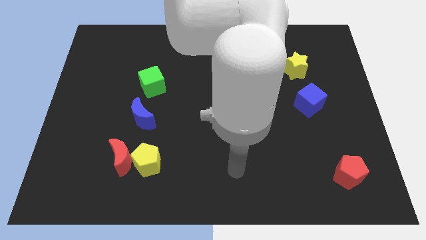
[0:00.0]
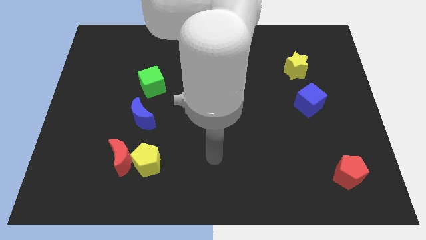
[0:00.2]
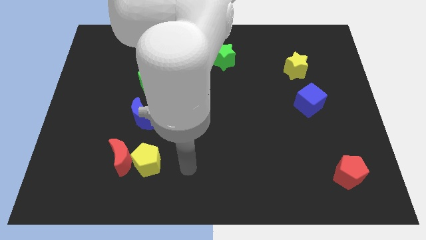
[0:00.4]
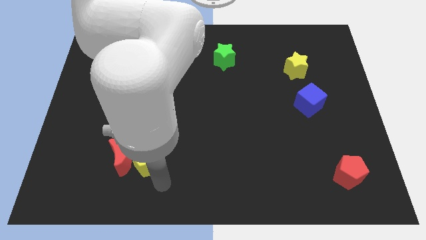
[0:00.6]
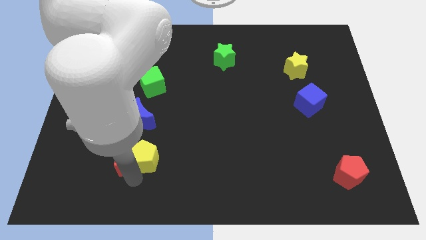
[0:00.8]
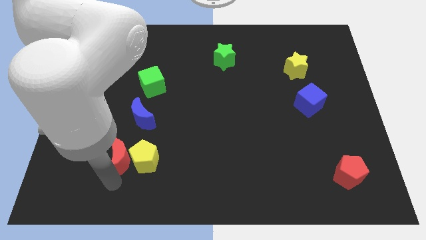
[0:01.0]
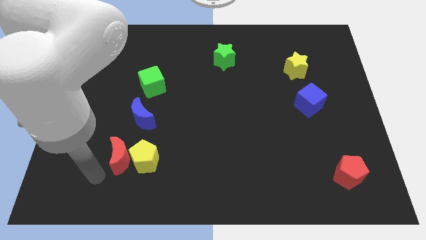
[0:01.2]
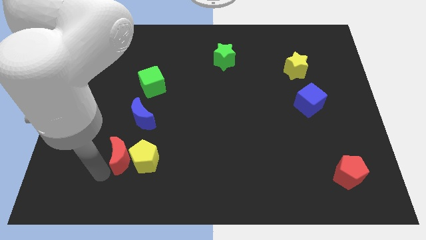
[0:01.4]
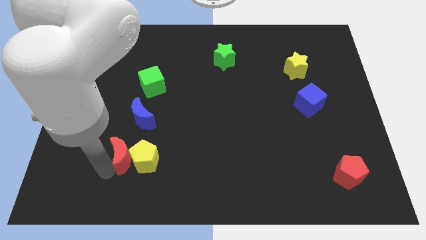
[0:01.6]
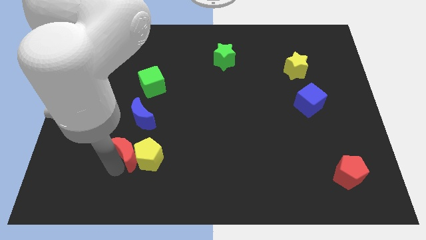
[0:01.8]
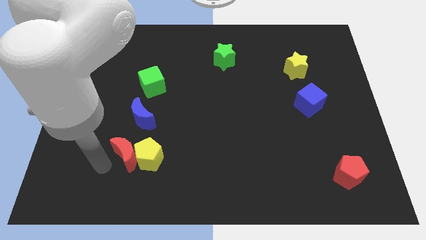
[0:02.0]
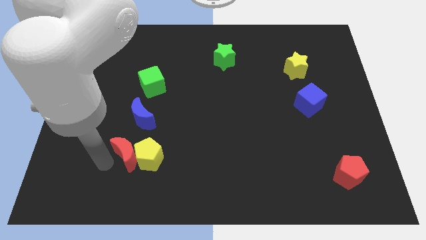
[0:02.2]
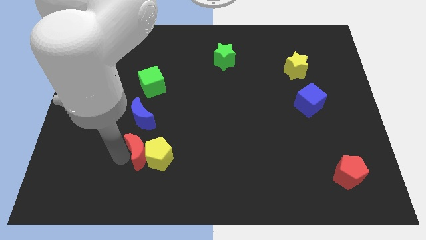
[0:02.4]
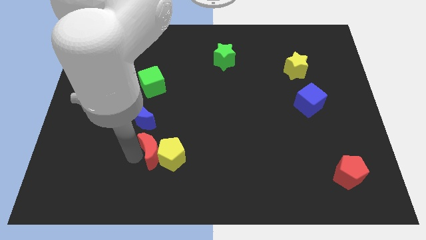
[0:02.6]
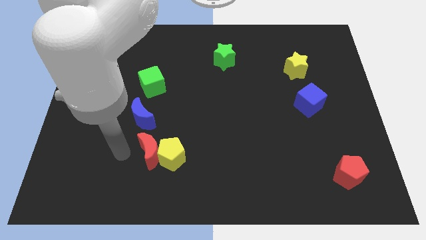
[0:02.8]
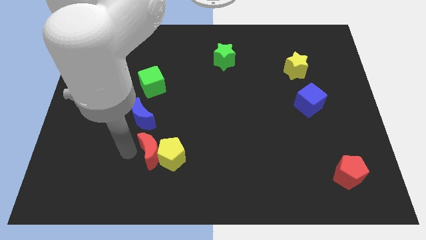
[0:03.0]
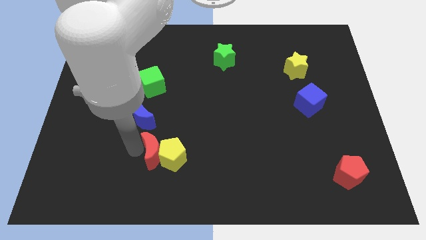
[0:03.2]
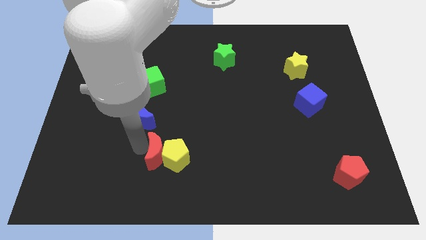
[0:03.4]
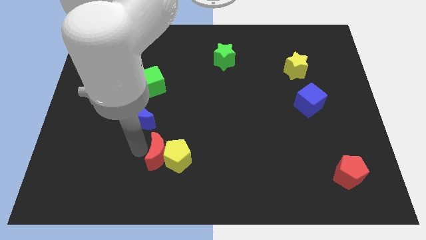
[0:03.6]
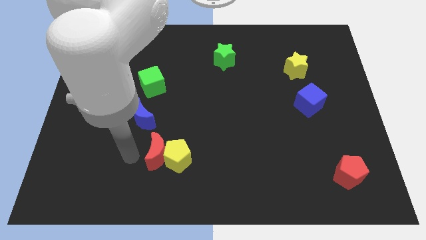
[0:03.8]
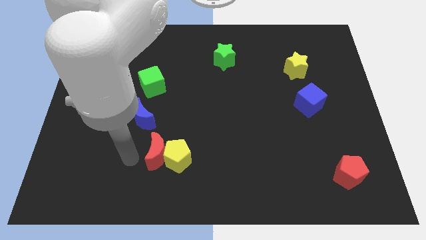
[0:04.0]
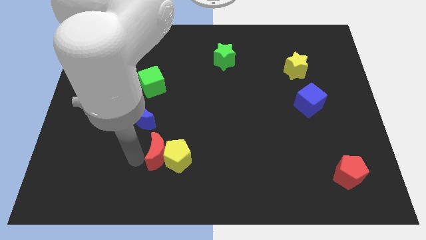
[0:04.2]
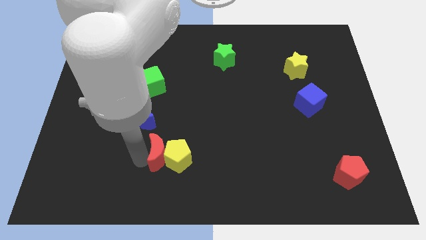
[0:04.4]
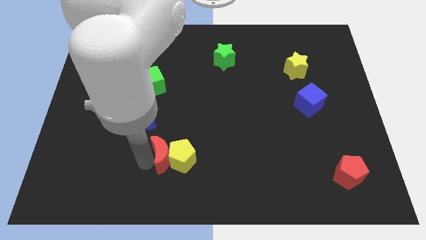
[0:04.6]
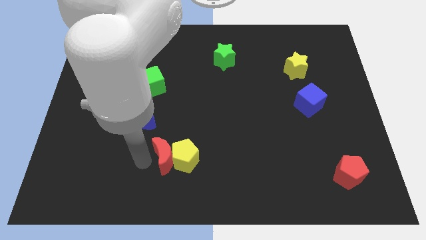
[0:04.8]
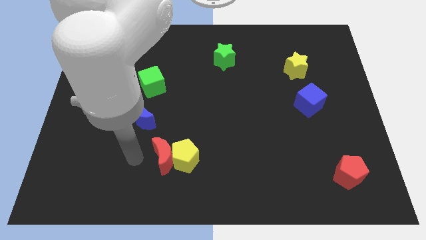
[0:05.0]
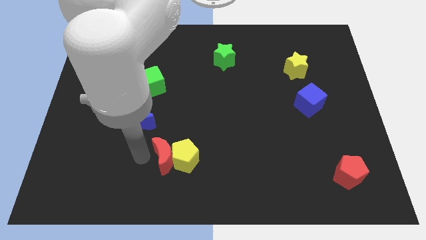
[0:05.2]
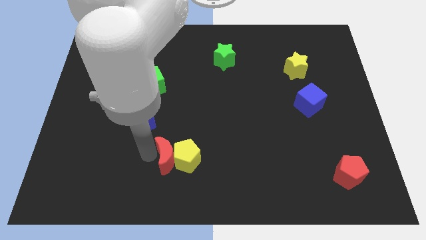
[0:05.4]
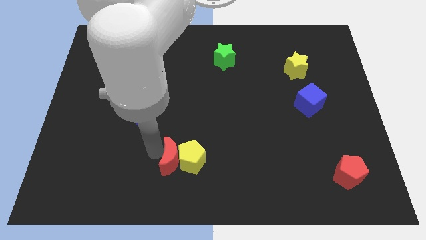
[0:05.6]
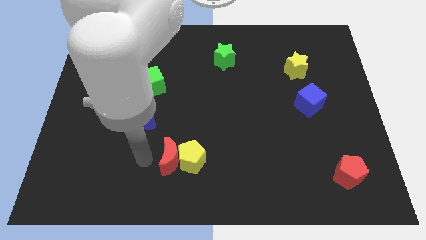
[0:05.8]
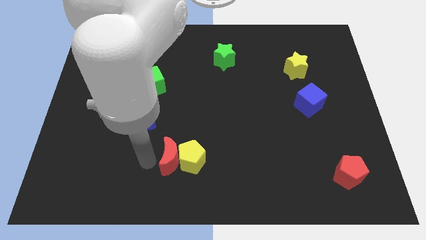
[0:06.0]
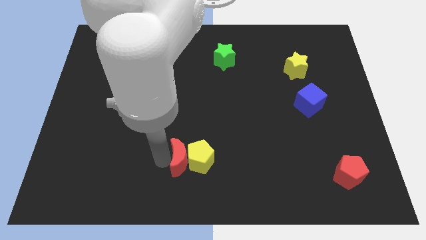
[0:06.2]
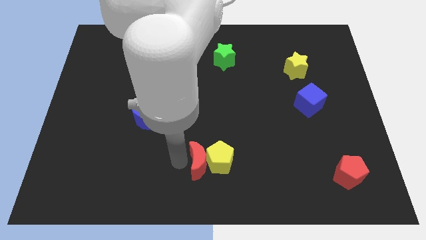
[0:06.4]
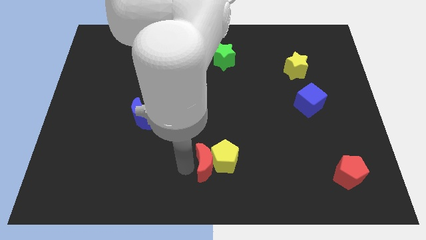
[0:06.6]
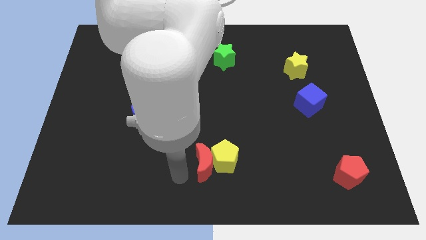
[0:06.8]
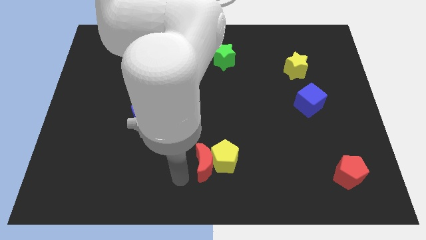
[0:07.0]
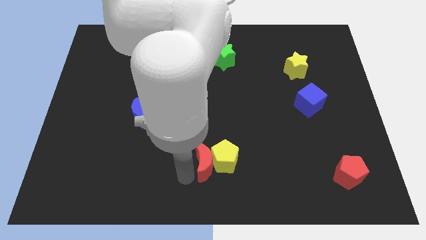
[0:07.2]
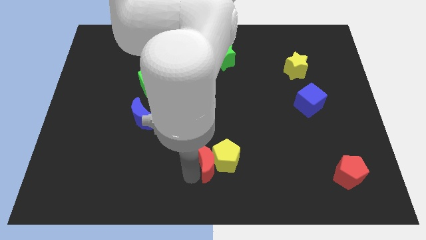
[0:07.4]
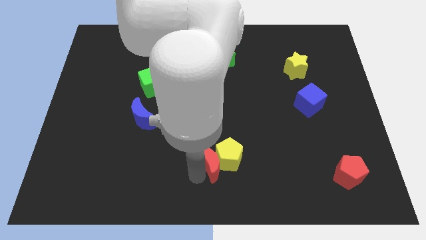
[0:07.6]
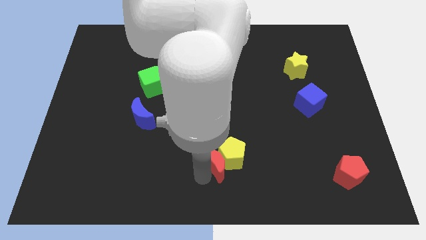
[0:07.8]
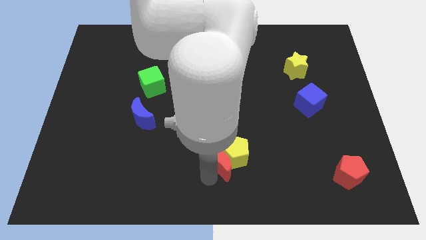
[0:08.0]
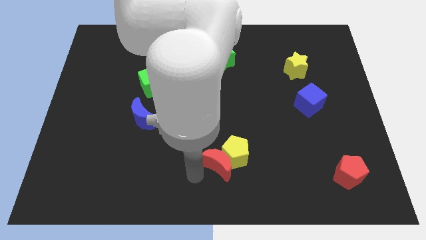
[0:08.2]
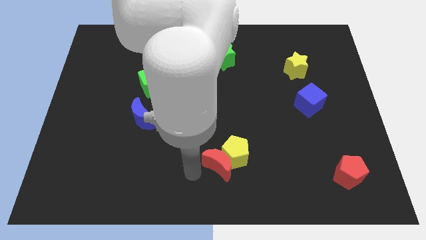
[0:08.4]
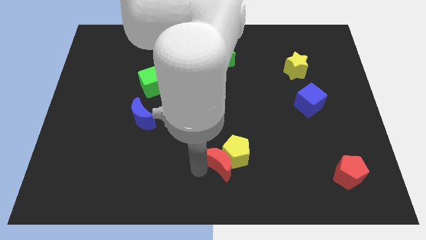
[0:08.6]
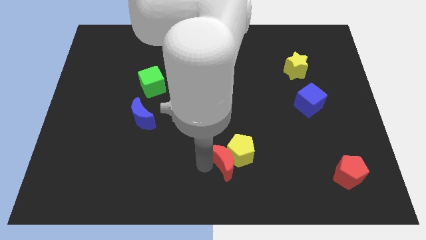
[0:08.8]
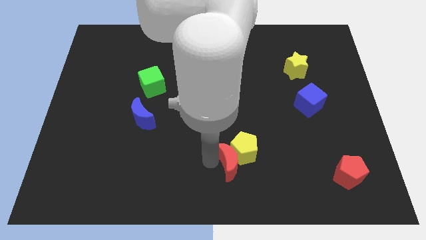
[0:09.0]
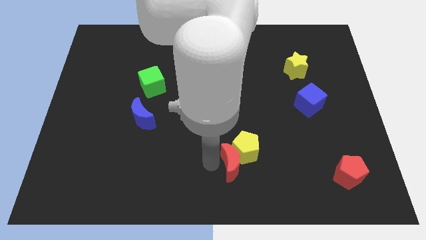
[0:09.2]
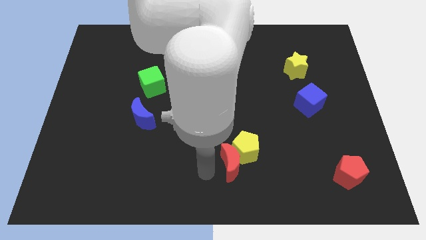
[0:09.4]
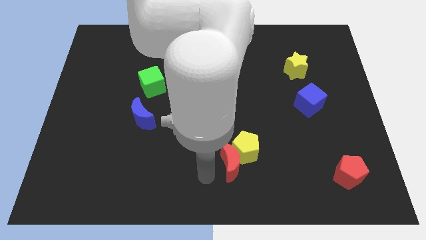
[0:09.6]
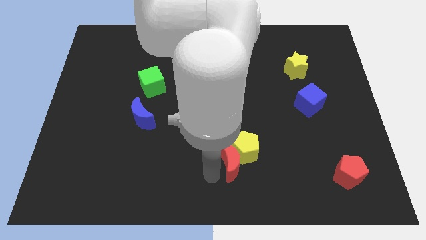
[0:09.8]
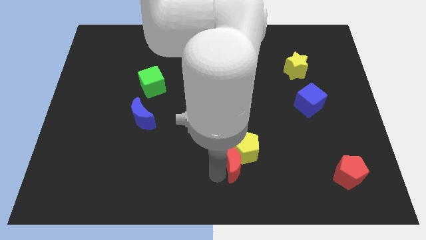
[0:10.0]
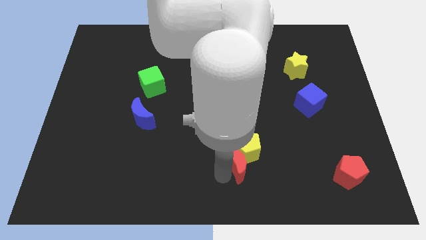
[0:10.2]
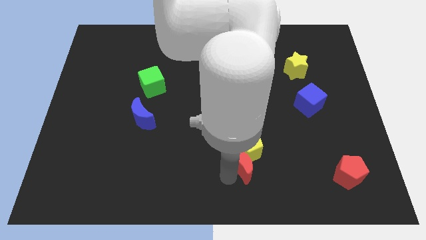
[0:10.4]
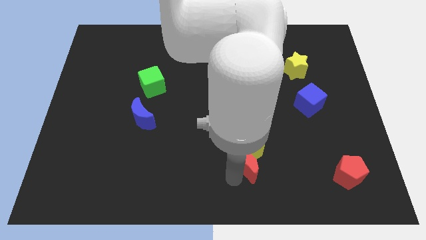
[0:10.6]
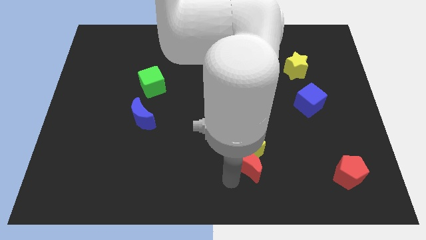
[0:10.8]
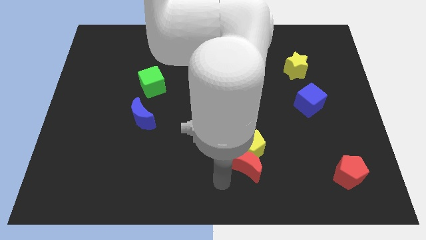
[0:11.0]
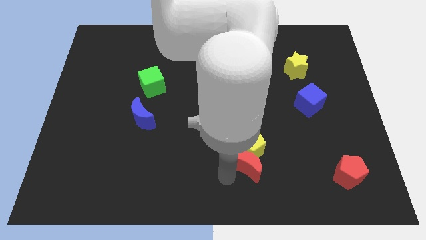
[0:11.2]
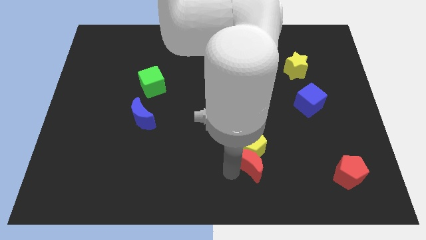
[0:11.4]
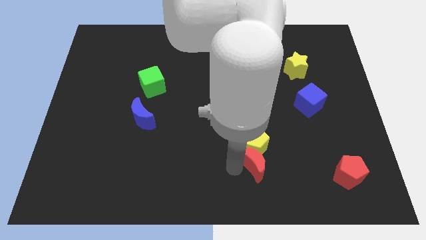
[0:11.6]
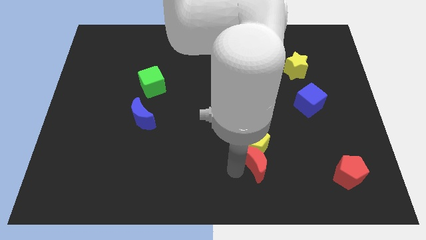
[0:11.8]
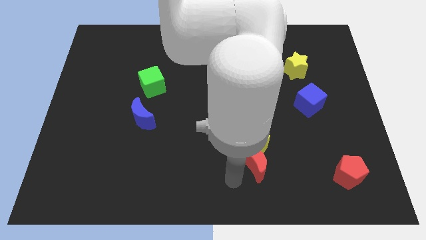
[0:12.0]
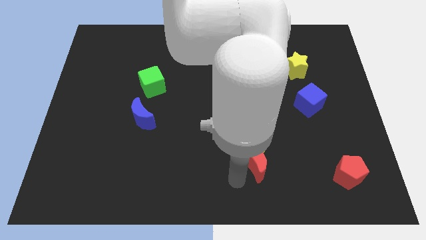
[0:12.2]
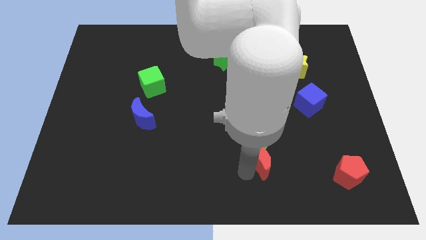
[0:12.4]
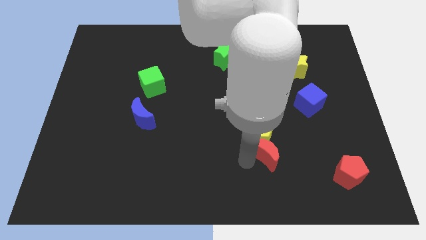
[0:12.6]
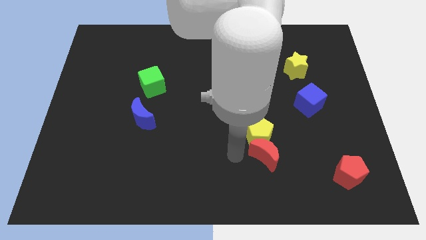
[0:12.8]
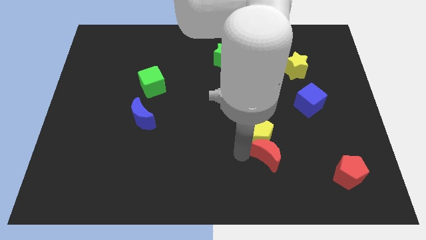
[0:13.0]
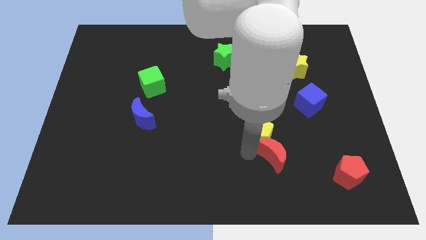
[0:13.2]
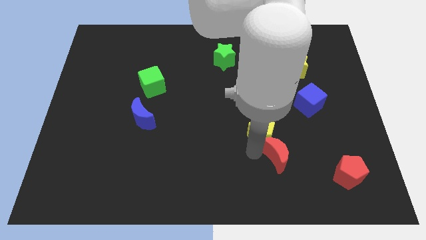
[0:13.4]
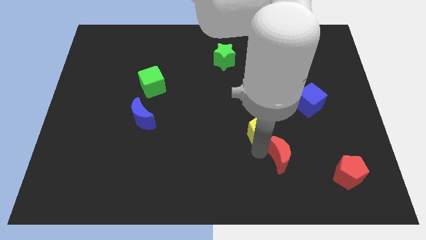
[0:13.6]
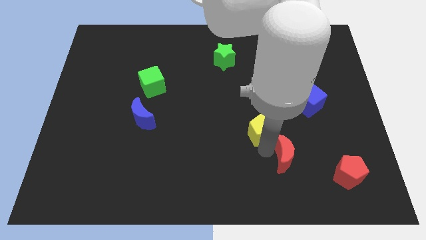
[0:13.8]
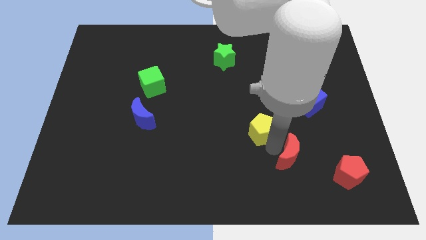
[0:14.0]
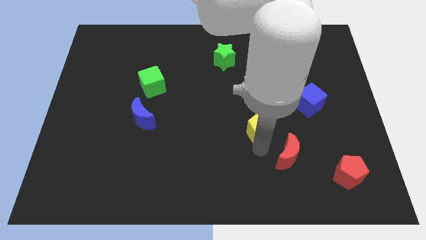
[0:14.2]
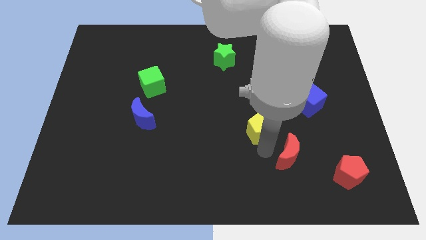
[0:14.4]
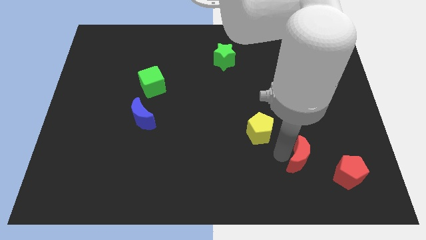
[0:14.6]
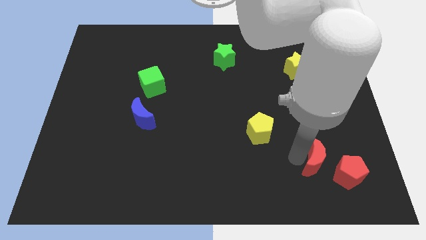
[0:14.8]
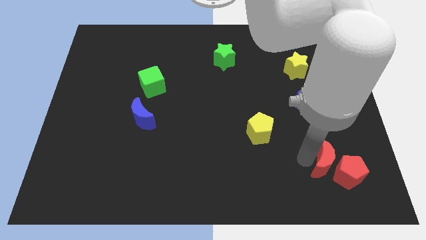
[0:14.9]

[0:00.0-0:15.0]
move the red moon to the red pentagon

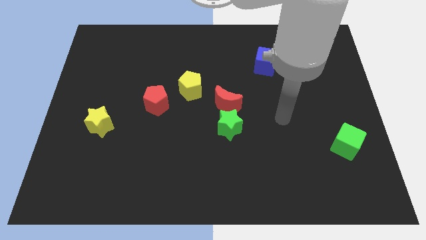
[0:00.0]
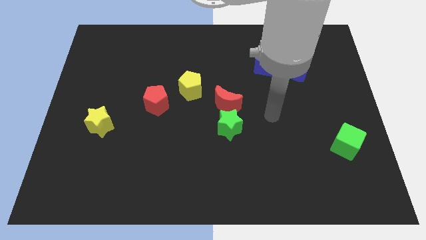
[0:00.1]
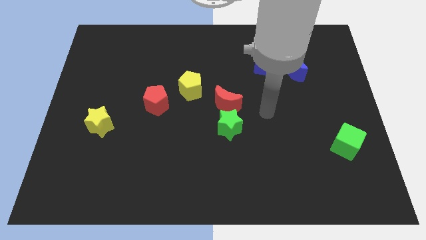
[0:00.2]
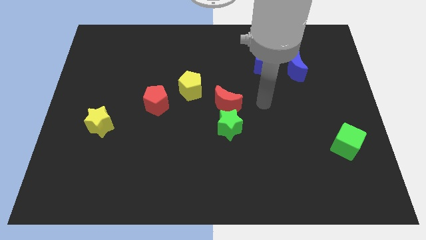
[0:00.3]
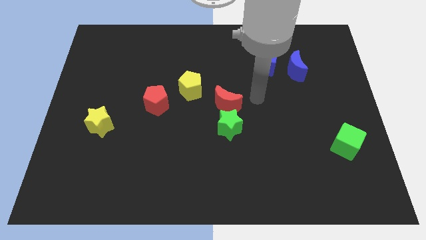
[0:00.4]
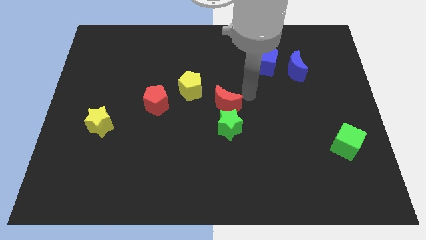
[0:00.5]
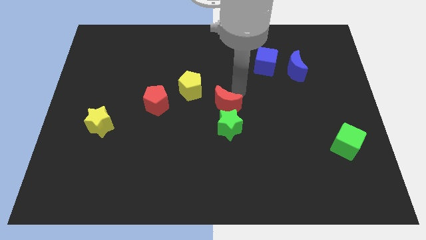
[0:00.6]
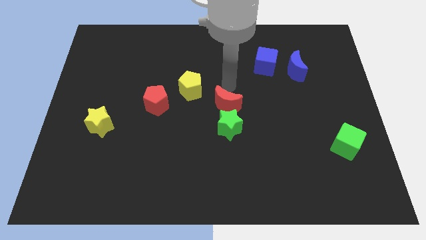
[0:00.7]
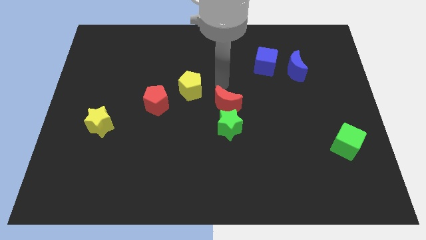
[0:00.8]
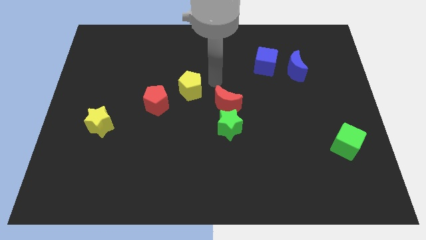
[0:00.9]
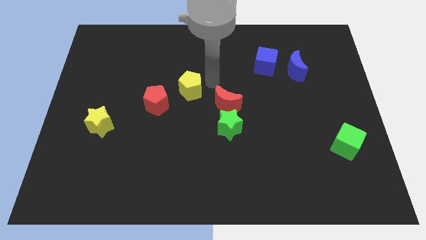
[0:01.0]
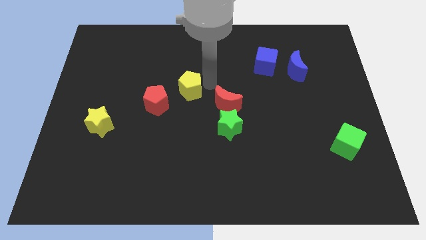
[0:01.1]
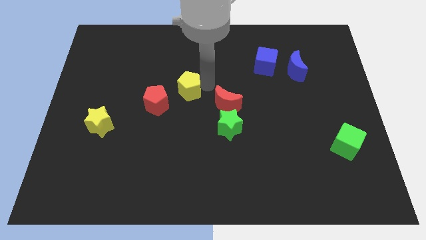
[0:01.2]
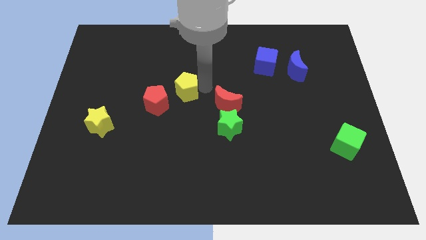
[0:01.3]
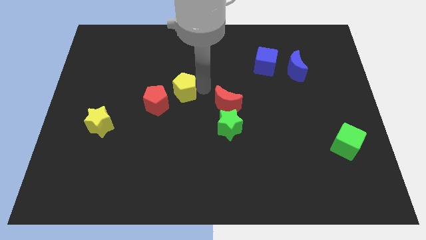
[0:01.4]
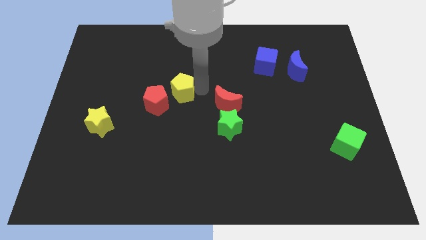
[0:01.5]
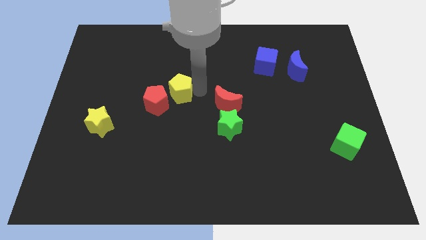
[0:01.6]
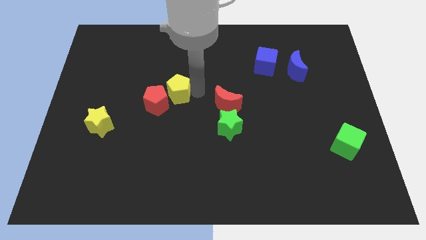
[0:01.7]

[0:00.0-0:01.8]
push the yellow pentagon towards the red pentagon
